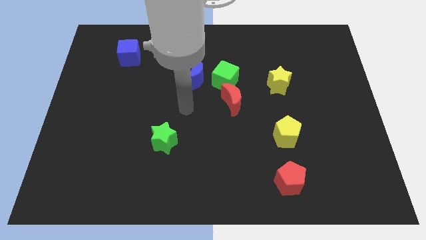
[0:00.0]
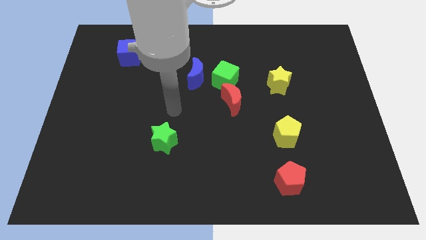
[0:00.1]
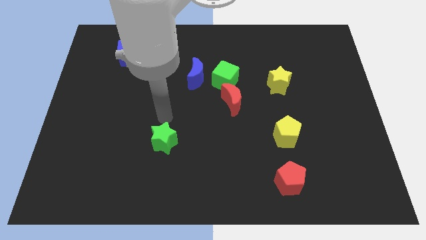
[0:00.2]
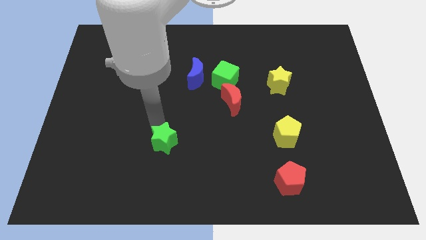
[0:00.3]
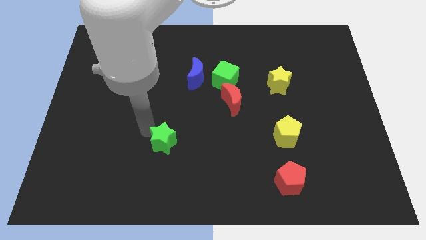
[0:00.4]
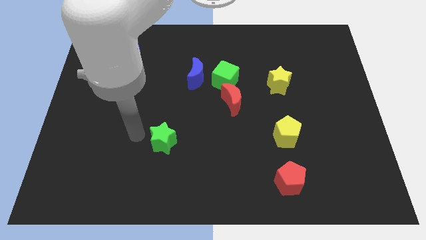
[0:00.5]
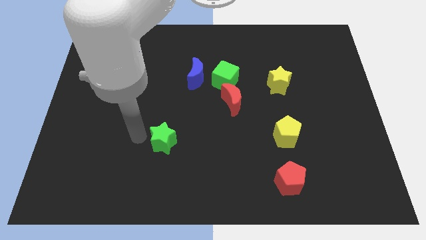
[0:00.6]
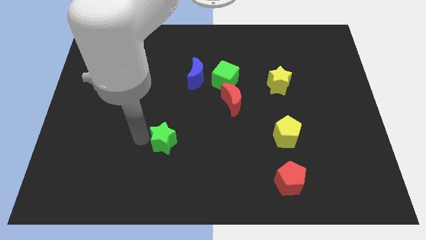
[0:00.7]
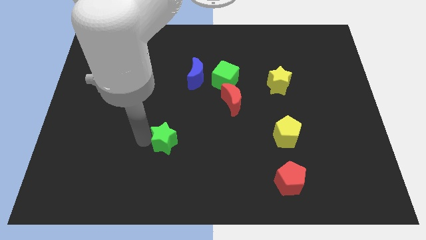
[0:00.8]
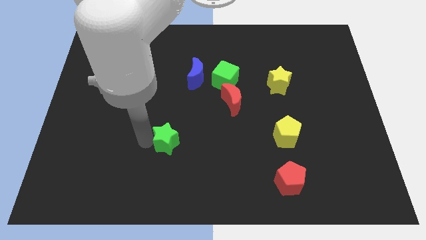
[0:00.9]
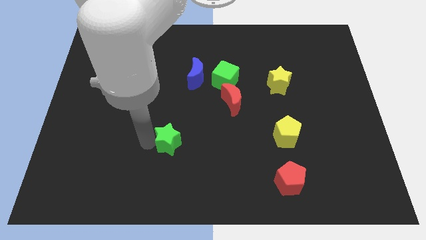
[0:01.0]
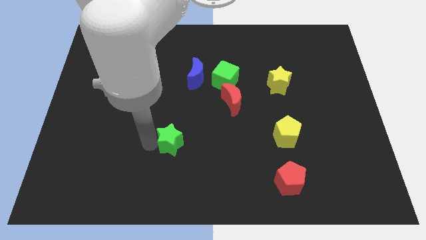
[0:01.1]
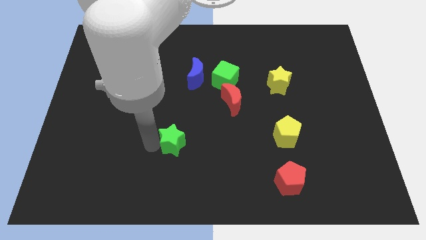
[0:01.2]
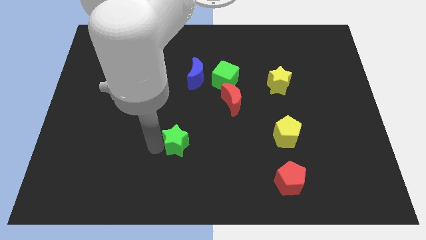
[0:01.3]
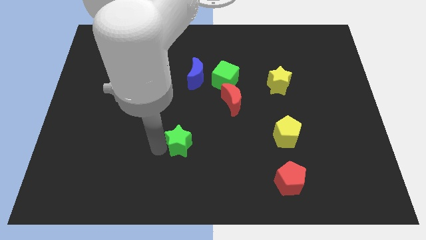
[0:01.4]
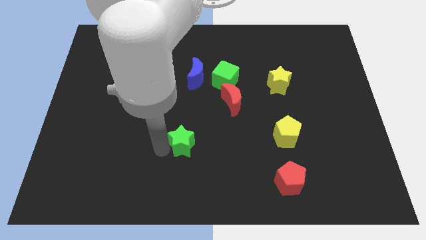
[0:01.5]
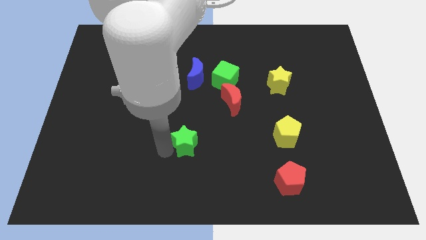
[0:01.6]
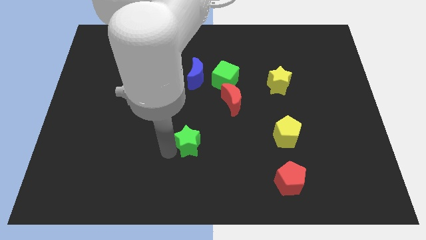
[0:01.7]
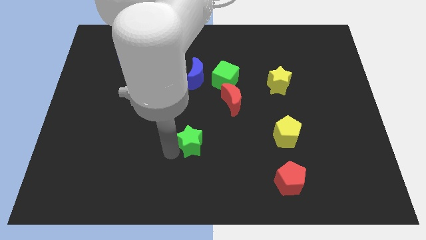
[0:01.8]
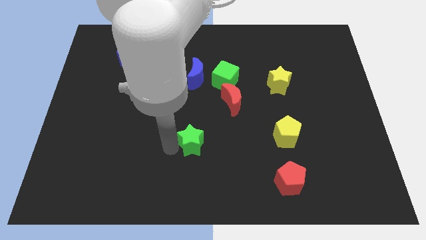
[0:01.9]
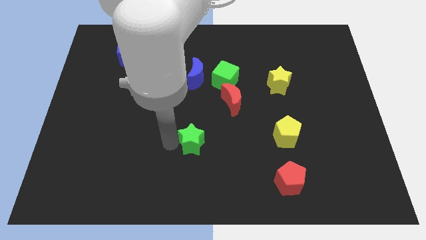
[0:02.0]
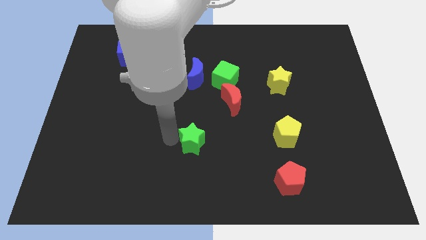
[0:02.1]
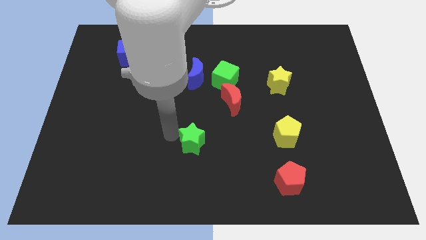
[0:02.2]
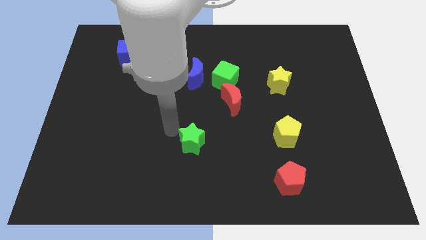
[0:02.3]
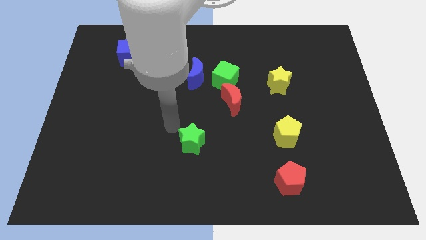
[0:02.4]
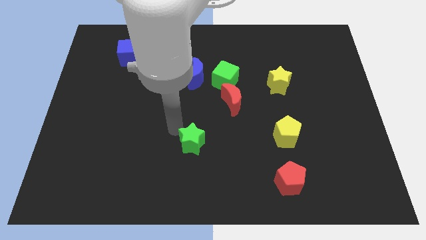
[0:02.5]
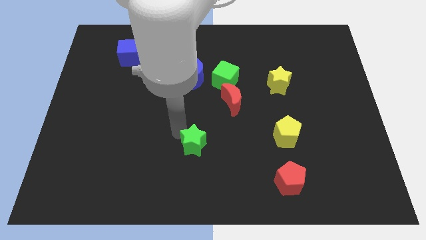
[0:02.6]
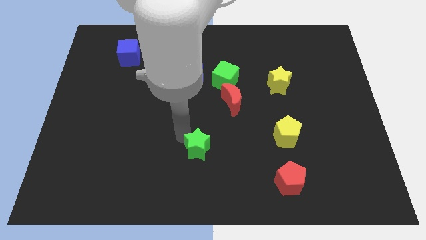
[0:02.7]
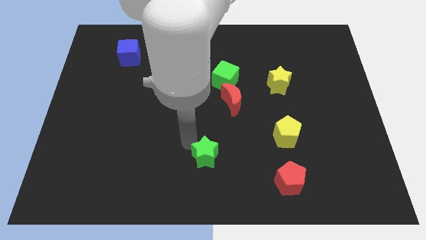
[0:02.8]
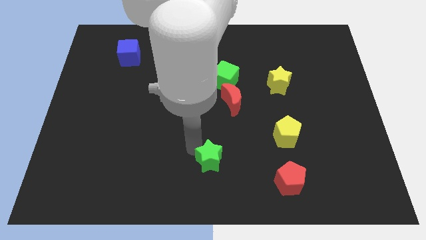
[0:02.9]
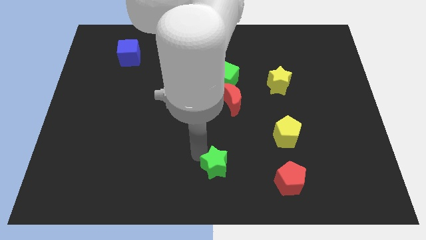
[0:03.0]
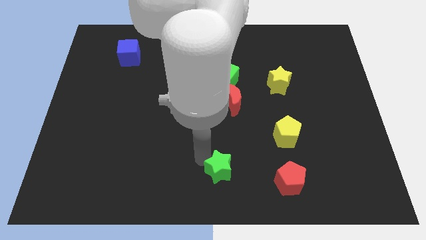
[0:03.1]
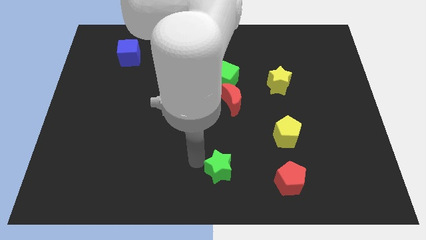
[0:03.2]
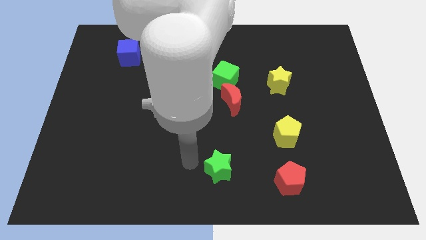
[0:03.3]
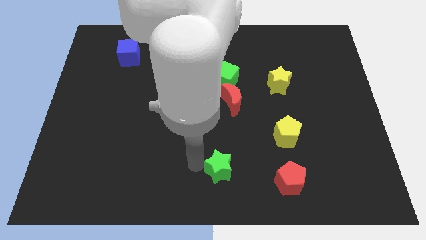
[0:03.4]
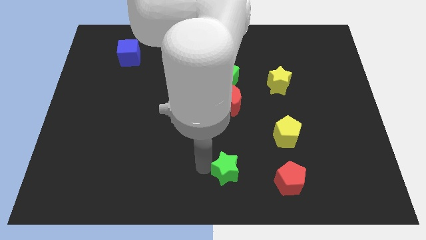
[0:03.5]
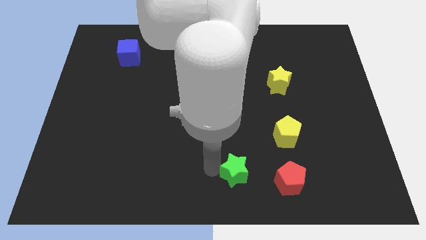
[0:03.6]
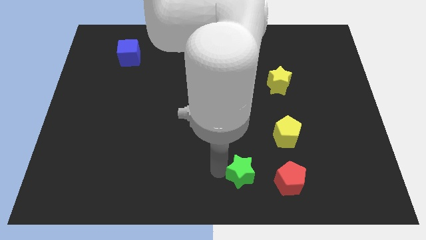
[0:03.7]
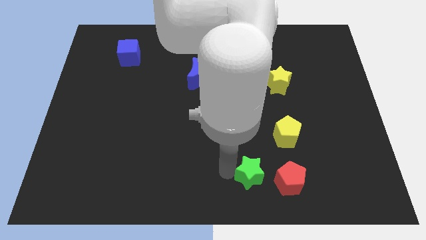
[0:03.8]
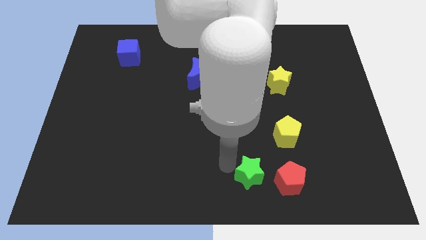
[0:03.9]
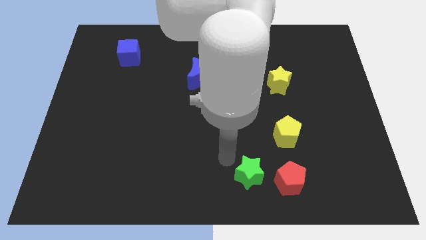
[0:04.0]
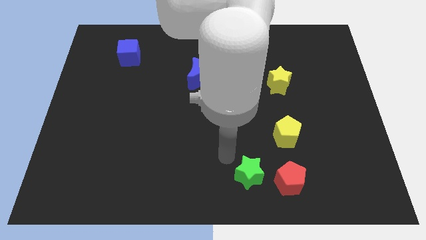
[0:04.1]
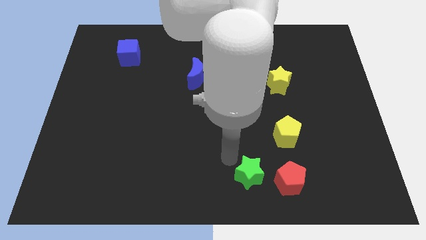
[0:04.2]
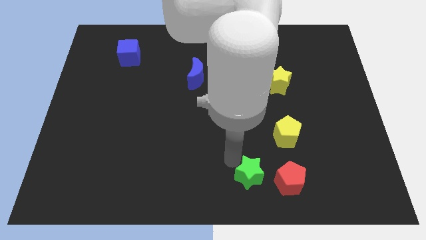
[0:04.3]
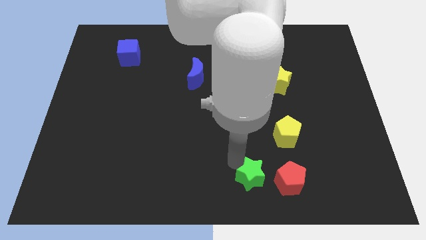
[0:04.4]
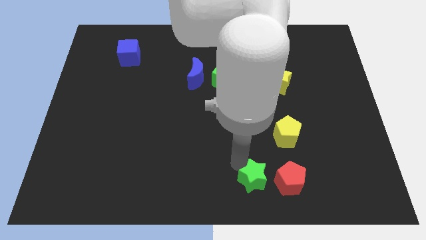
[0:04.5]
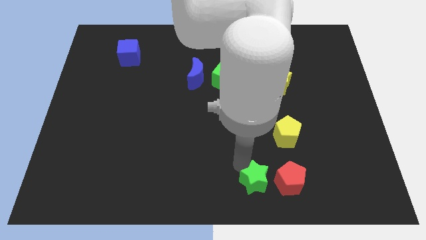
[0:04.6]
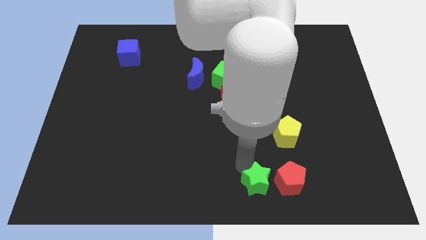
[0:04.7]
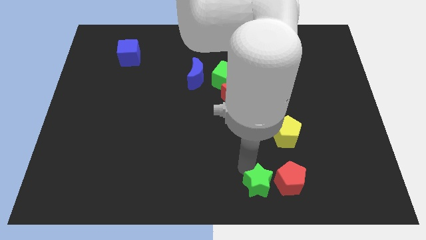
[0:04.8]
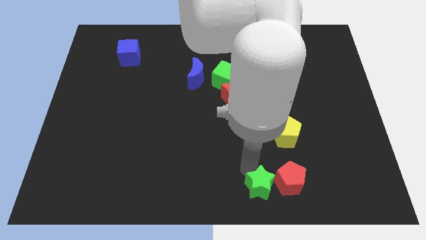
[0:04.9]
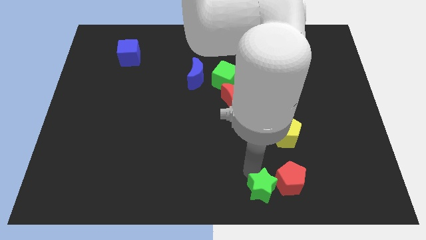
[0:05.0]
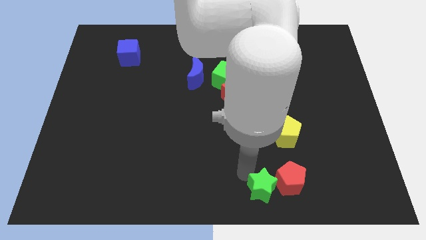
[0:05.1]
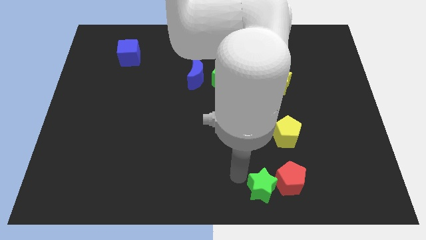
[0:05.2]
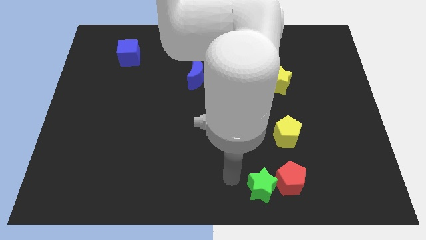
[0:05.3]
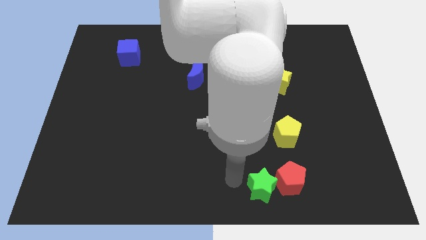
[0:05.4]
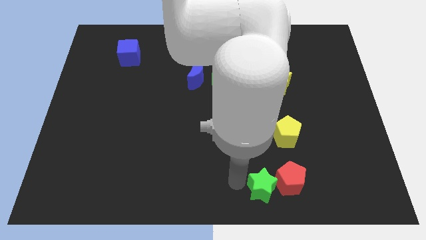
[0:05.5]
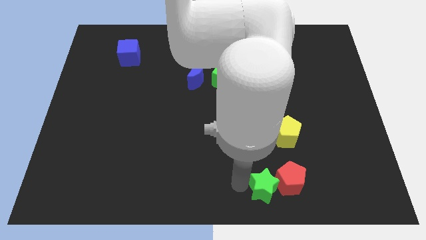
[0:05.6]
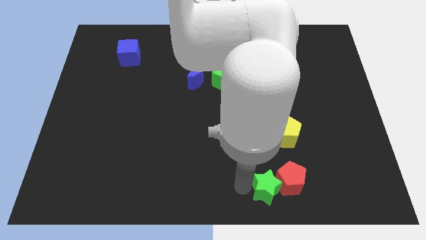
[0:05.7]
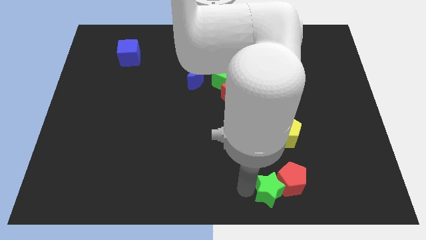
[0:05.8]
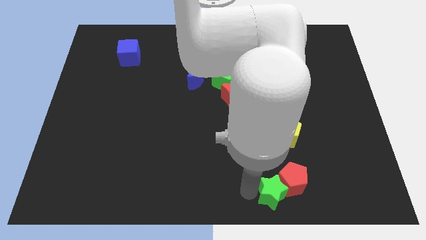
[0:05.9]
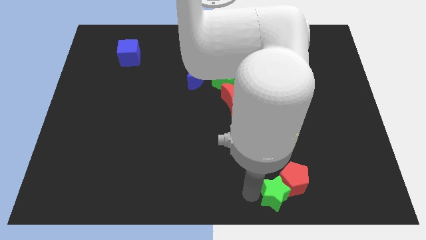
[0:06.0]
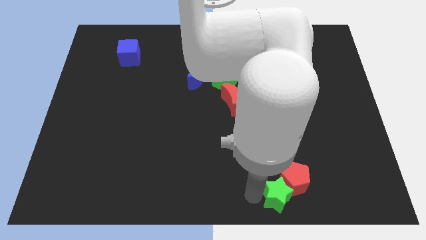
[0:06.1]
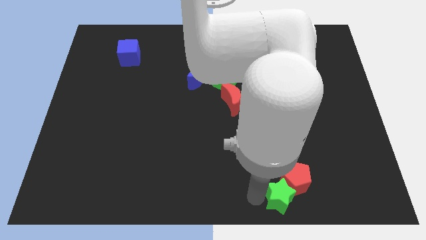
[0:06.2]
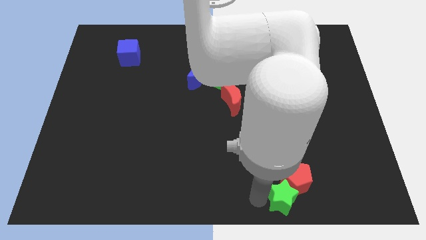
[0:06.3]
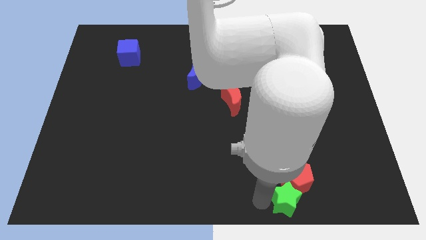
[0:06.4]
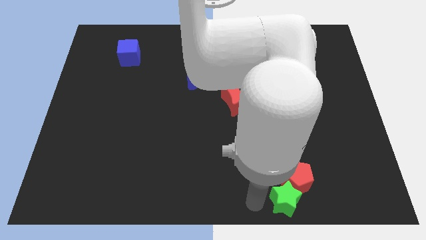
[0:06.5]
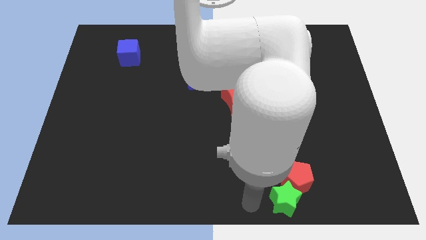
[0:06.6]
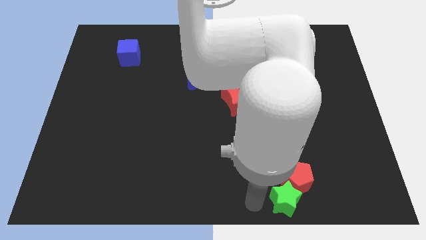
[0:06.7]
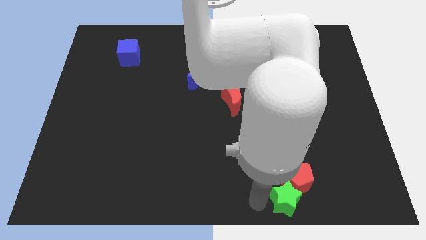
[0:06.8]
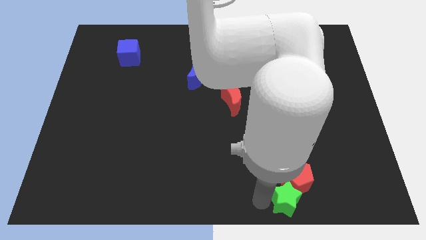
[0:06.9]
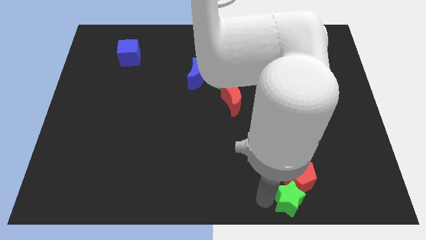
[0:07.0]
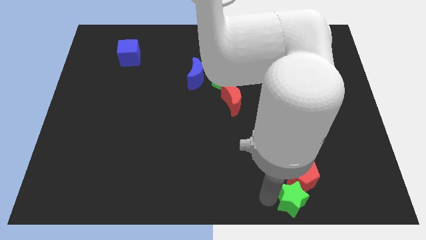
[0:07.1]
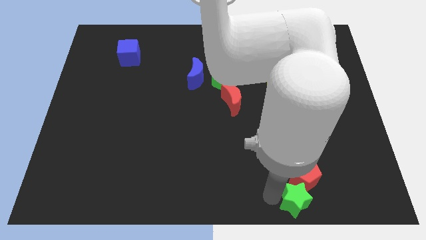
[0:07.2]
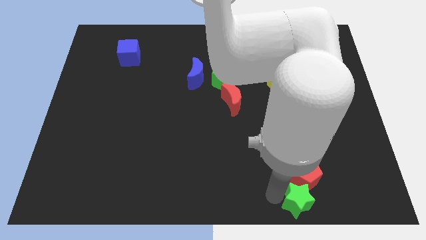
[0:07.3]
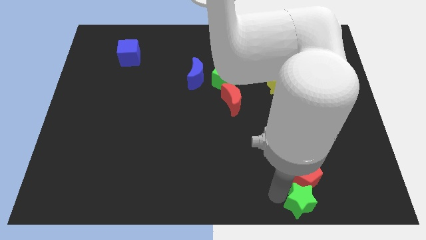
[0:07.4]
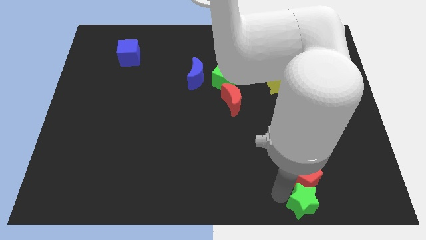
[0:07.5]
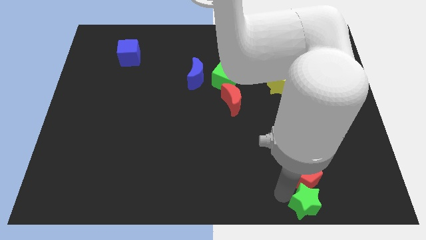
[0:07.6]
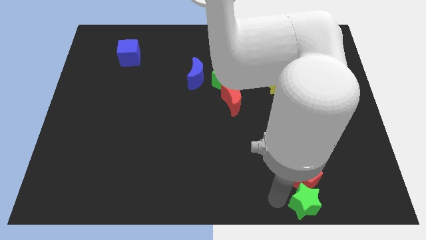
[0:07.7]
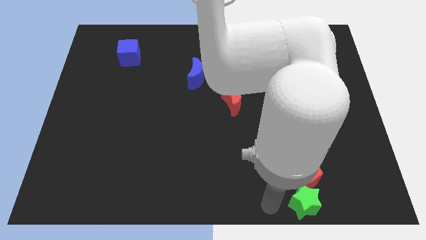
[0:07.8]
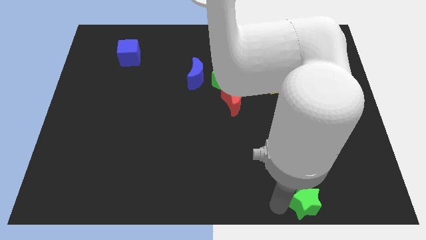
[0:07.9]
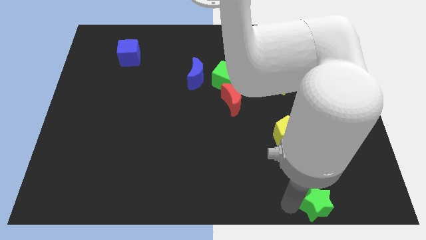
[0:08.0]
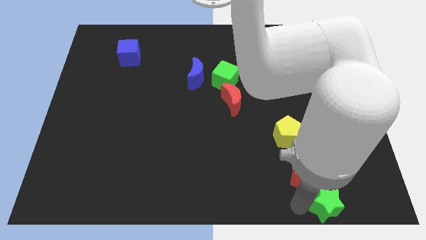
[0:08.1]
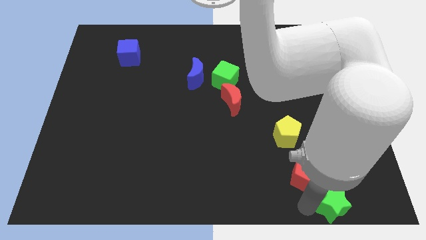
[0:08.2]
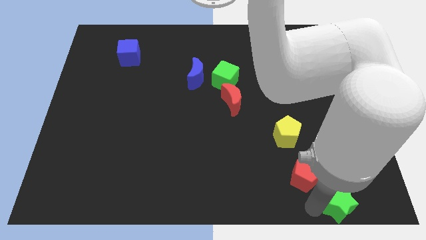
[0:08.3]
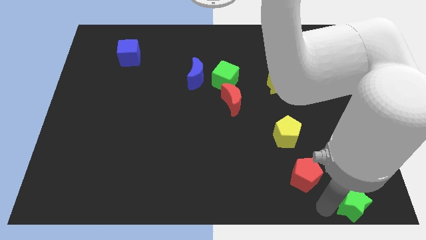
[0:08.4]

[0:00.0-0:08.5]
move the green star to the lower right corner
